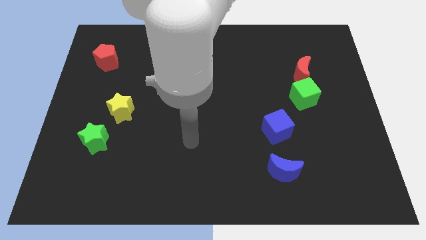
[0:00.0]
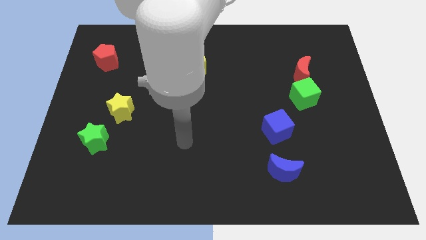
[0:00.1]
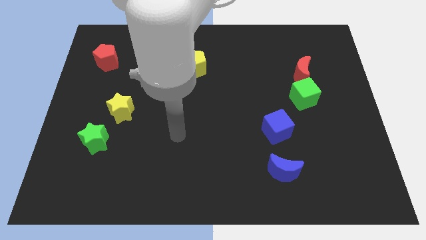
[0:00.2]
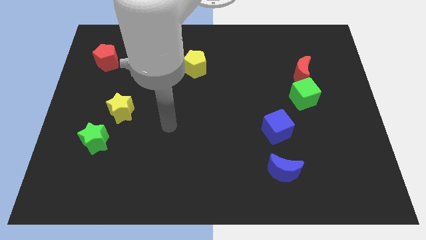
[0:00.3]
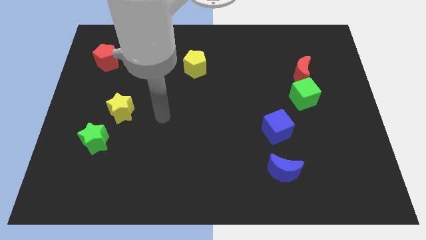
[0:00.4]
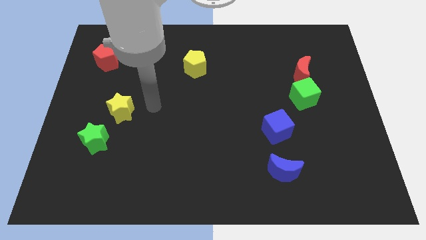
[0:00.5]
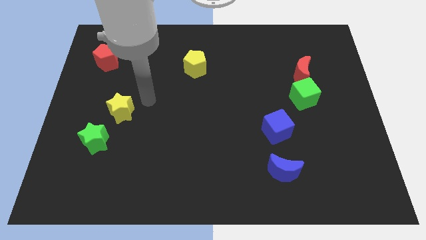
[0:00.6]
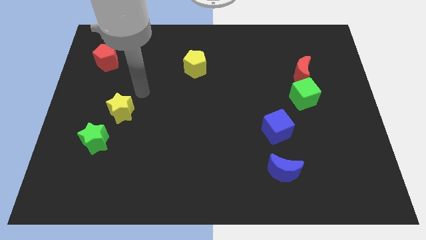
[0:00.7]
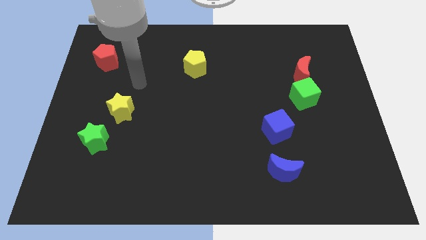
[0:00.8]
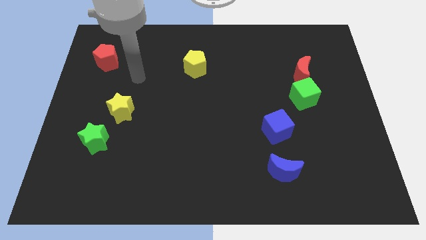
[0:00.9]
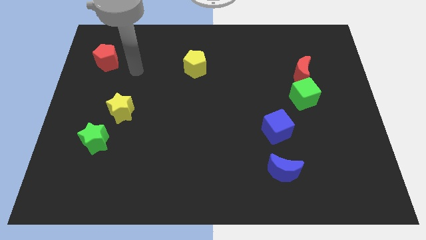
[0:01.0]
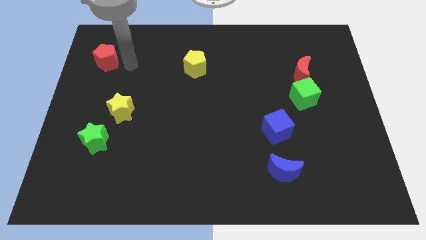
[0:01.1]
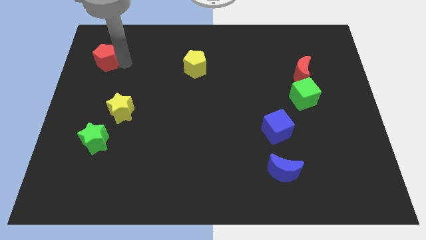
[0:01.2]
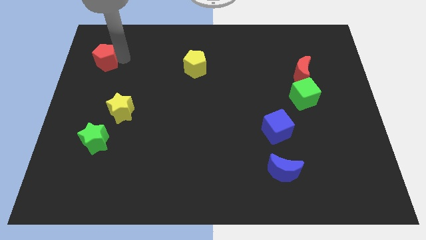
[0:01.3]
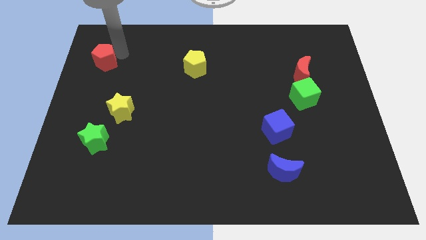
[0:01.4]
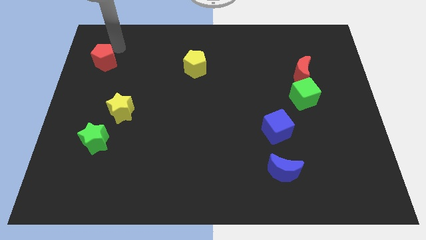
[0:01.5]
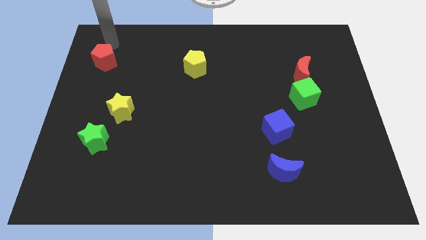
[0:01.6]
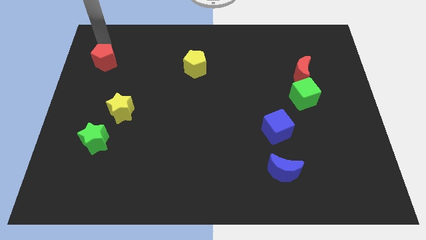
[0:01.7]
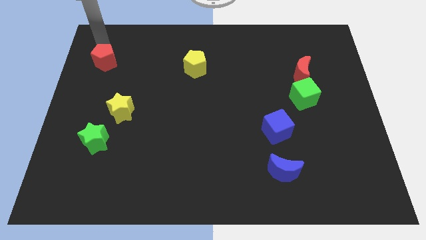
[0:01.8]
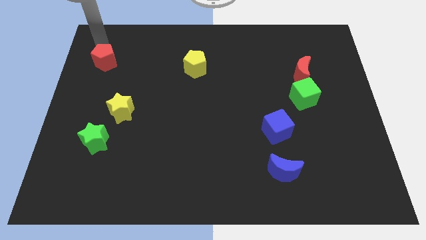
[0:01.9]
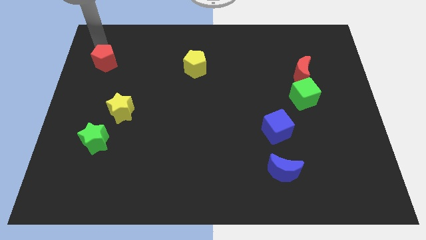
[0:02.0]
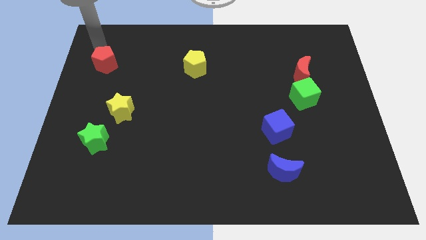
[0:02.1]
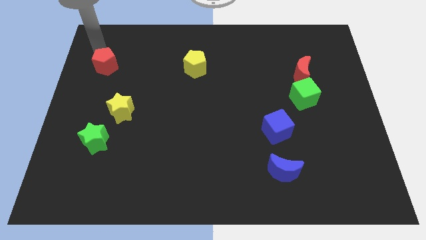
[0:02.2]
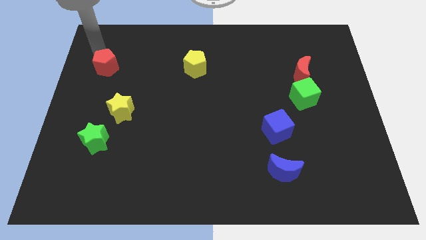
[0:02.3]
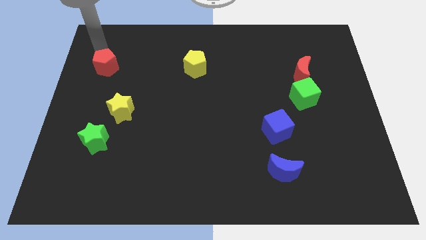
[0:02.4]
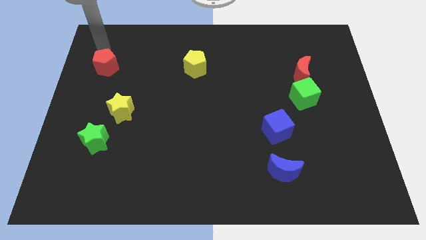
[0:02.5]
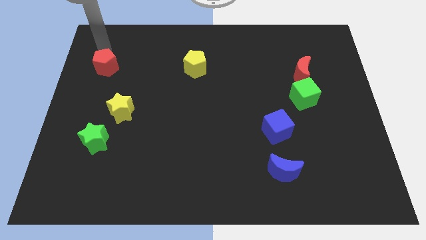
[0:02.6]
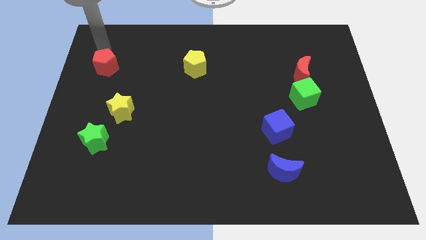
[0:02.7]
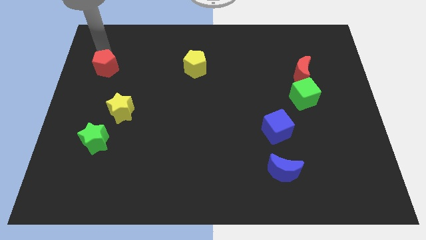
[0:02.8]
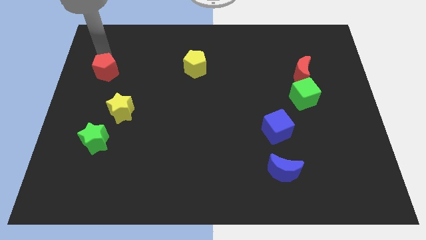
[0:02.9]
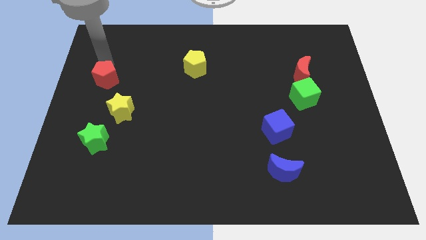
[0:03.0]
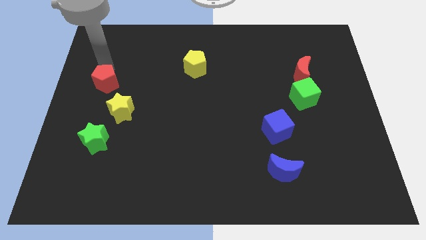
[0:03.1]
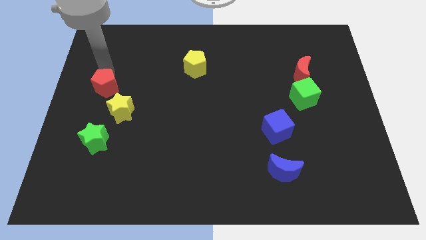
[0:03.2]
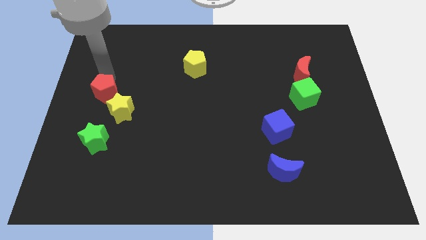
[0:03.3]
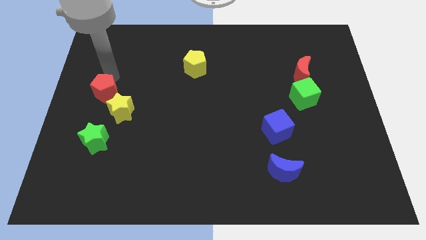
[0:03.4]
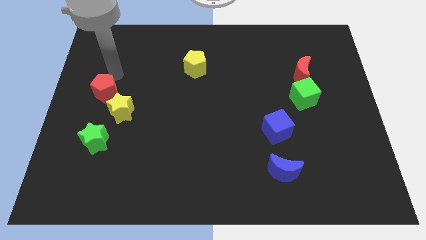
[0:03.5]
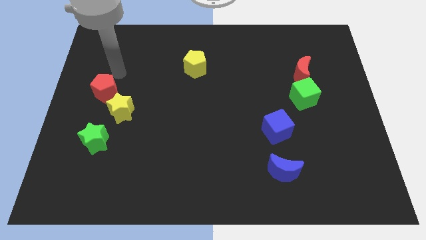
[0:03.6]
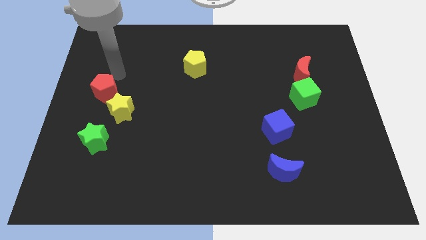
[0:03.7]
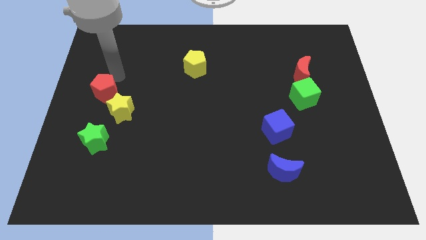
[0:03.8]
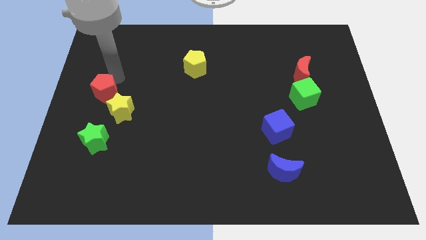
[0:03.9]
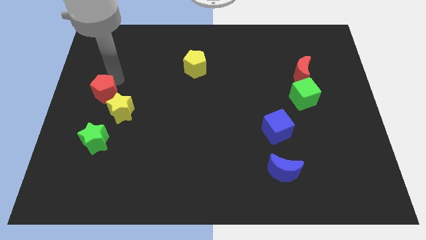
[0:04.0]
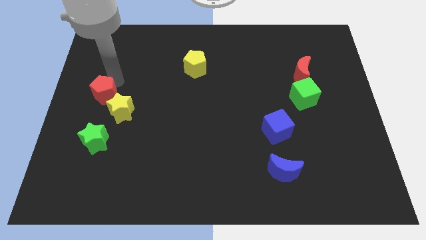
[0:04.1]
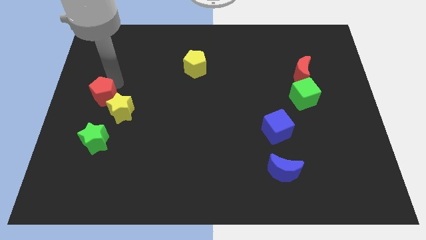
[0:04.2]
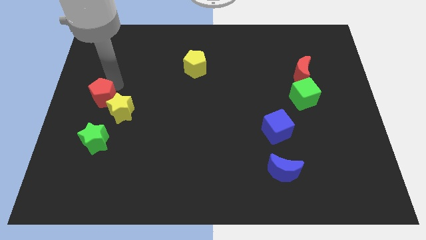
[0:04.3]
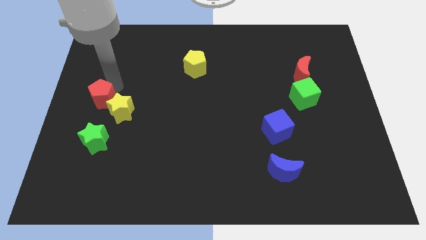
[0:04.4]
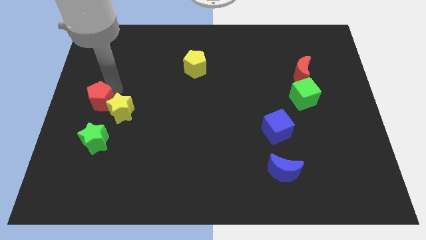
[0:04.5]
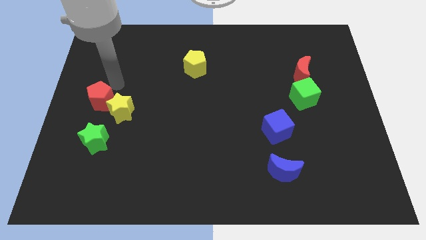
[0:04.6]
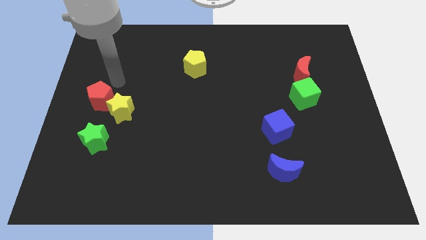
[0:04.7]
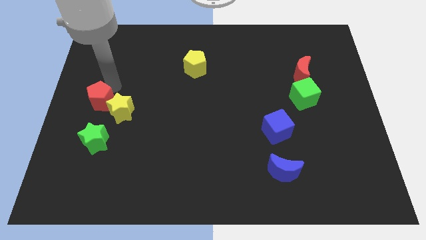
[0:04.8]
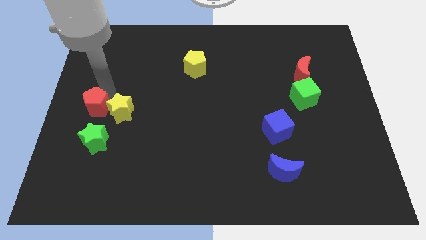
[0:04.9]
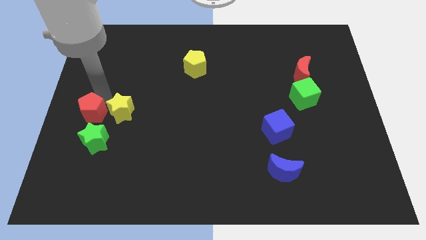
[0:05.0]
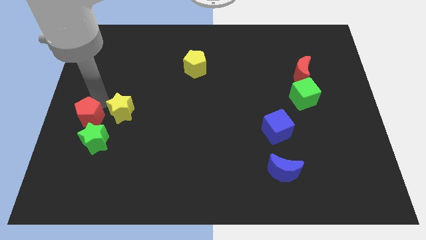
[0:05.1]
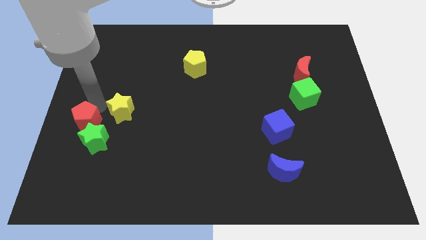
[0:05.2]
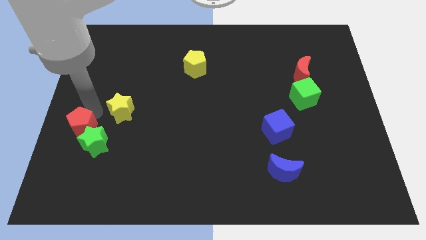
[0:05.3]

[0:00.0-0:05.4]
slide the red pentagon downwards

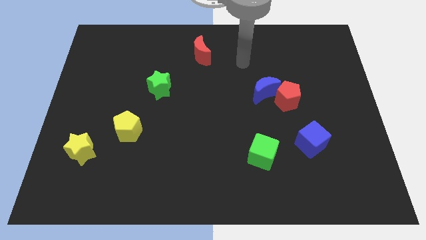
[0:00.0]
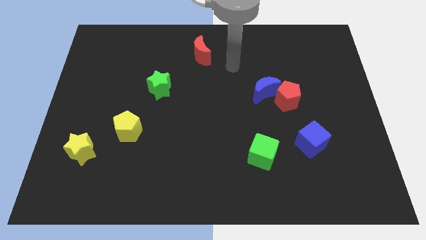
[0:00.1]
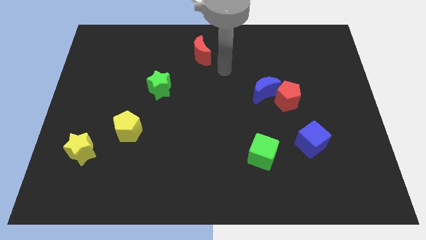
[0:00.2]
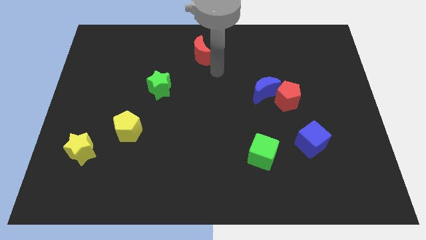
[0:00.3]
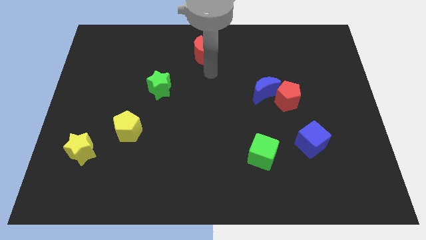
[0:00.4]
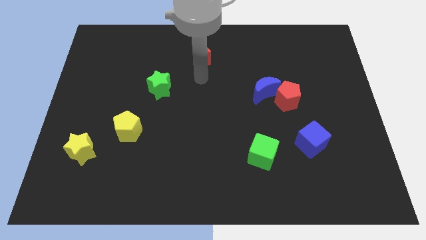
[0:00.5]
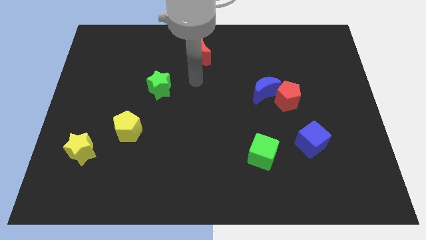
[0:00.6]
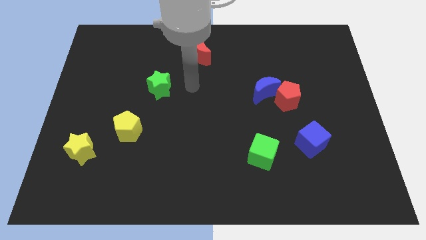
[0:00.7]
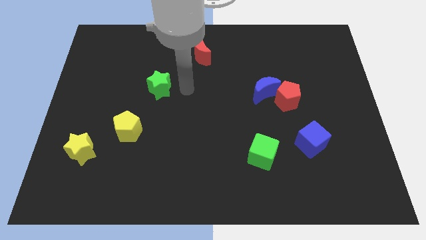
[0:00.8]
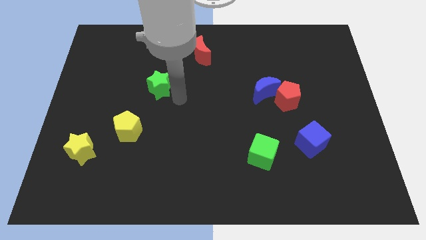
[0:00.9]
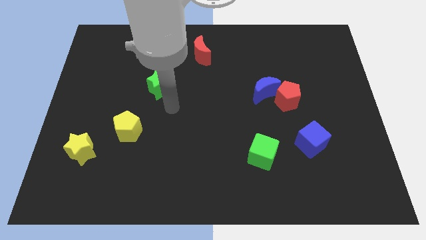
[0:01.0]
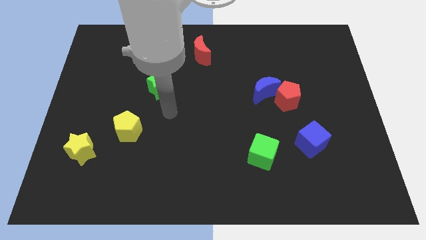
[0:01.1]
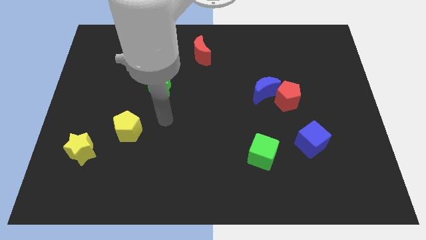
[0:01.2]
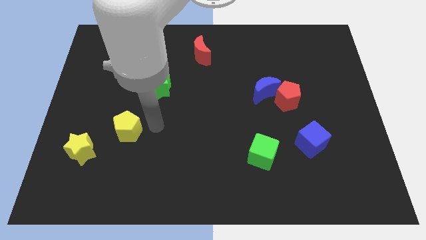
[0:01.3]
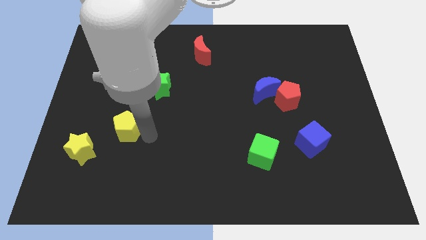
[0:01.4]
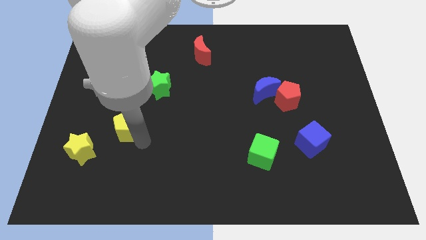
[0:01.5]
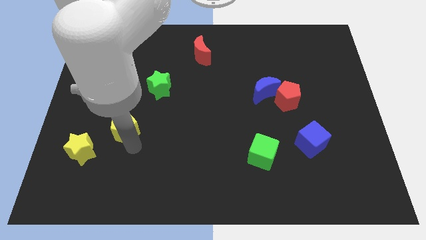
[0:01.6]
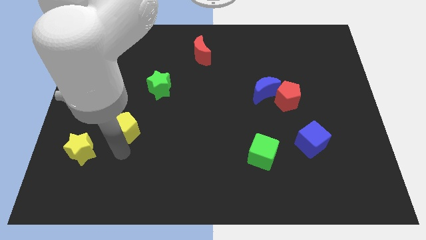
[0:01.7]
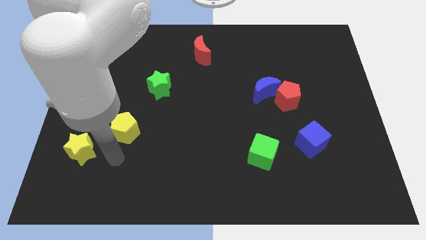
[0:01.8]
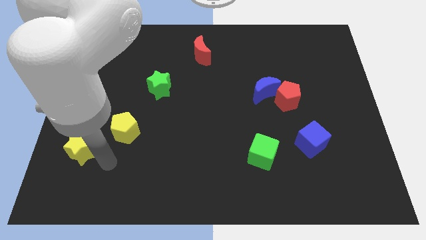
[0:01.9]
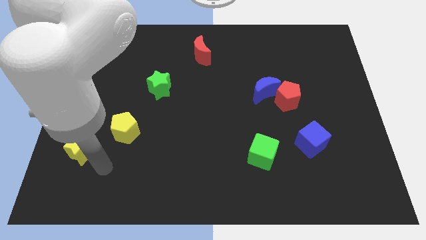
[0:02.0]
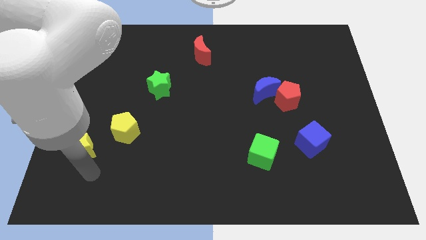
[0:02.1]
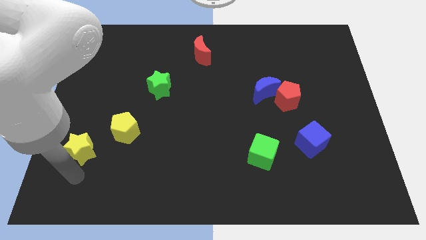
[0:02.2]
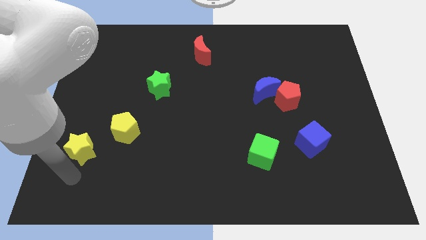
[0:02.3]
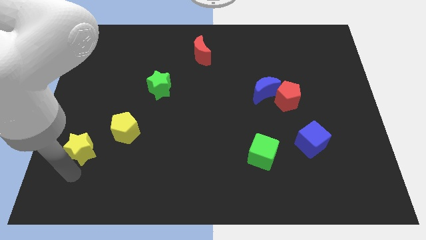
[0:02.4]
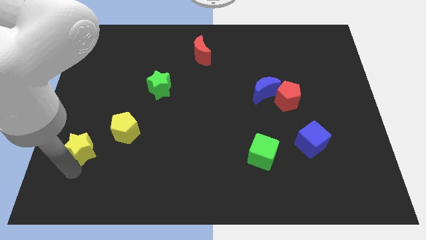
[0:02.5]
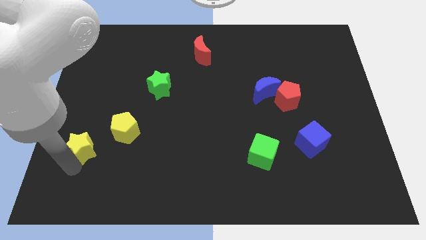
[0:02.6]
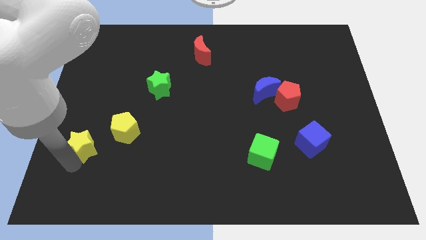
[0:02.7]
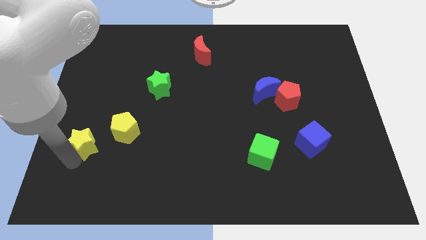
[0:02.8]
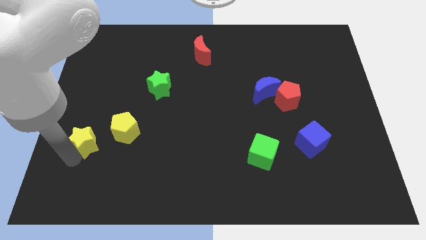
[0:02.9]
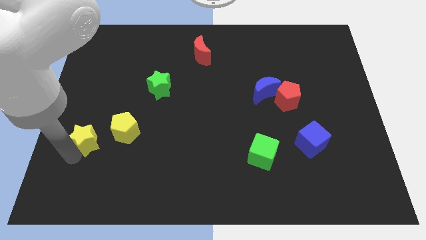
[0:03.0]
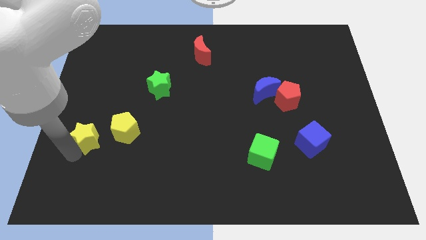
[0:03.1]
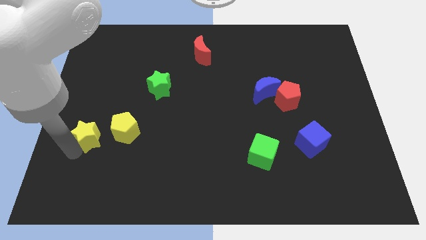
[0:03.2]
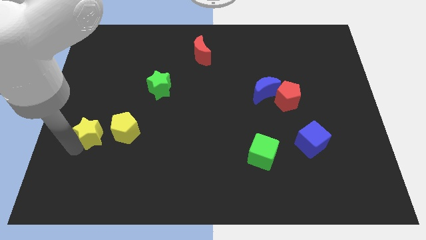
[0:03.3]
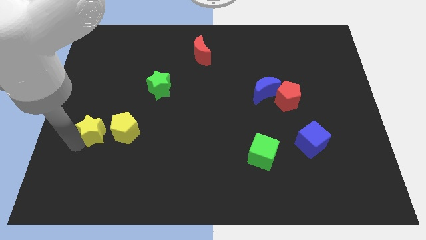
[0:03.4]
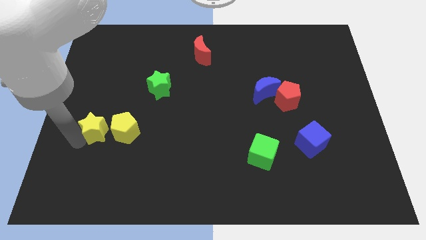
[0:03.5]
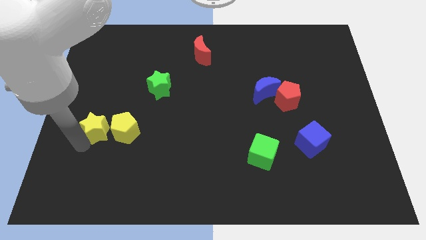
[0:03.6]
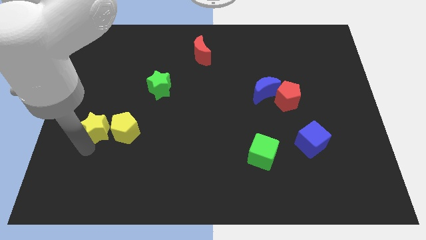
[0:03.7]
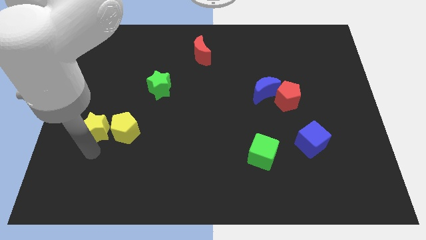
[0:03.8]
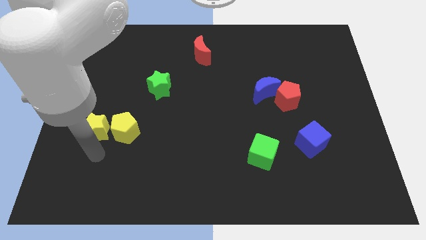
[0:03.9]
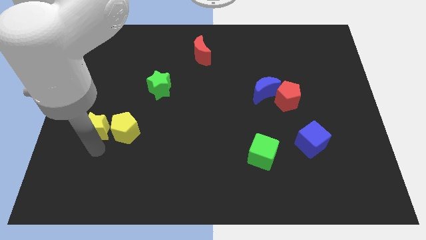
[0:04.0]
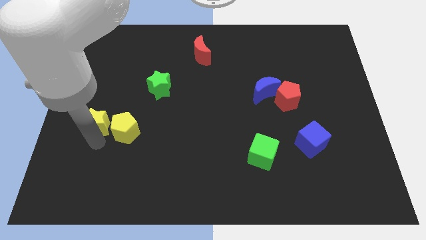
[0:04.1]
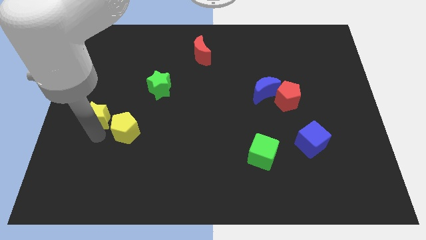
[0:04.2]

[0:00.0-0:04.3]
slide the yellow star upwards a little bit
